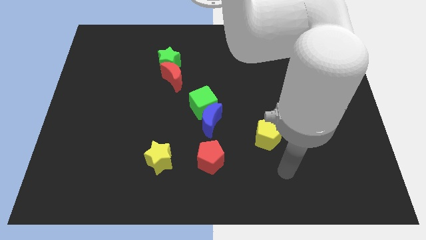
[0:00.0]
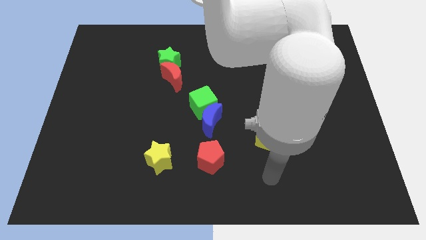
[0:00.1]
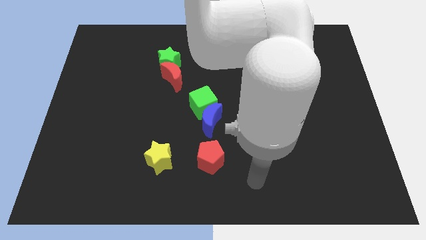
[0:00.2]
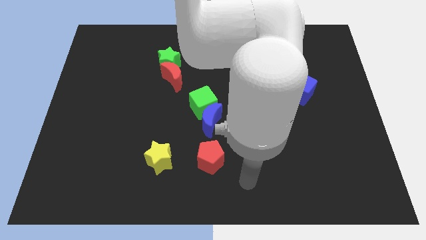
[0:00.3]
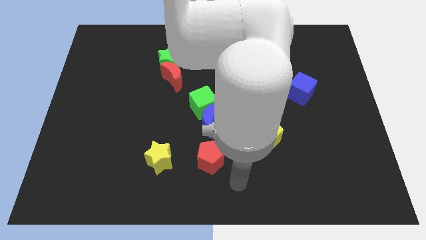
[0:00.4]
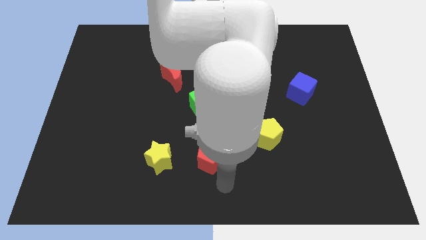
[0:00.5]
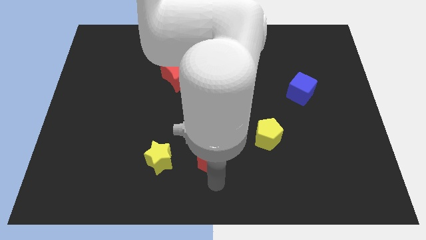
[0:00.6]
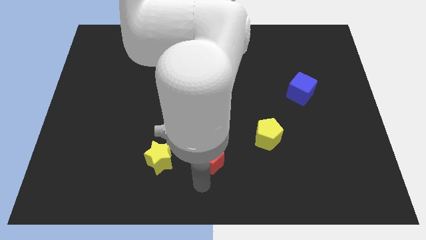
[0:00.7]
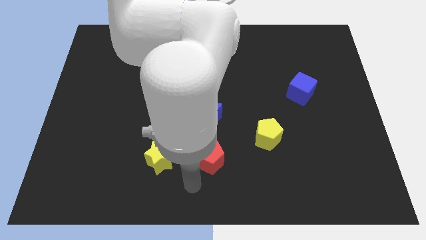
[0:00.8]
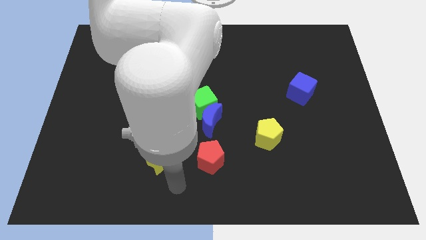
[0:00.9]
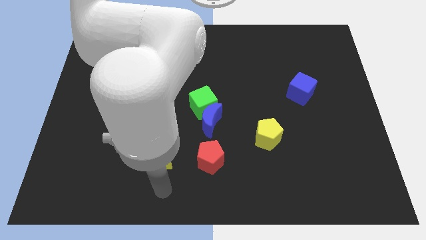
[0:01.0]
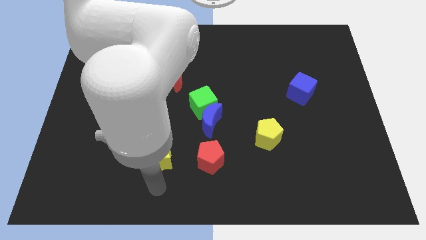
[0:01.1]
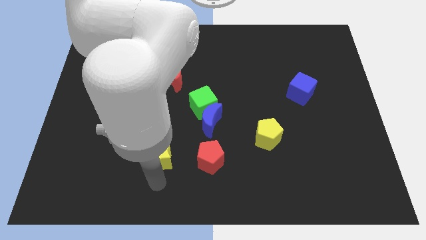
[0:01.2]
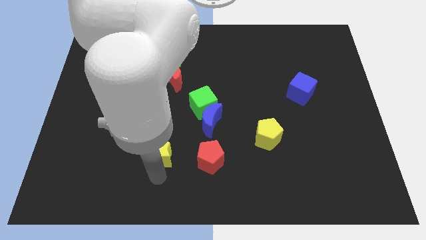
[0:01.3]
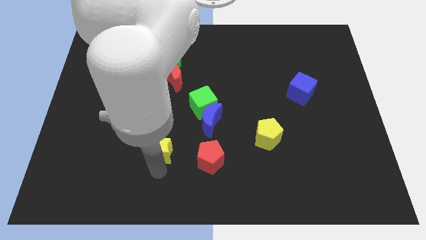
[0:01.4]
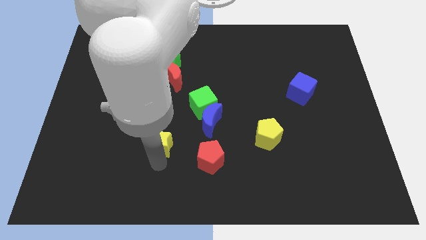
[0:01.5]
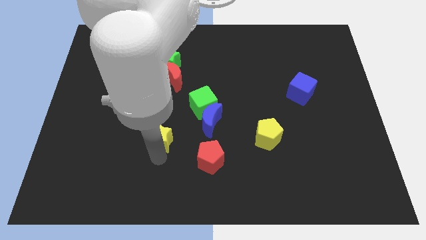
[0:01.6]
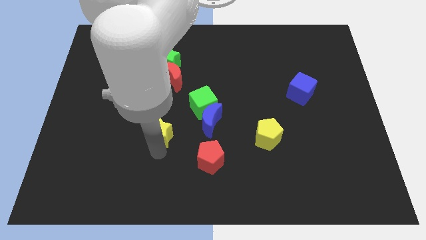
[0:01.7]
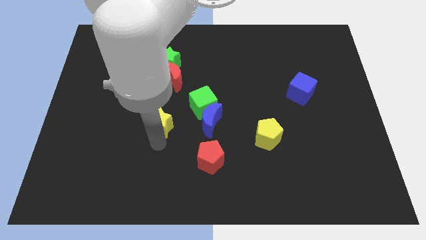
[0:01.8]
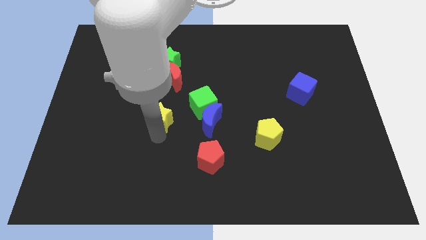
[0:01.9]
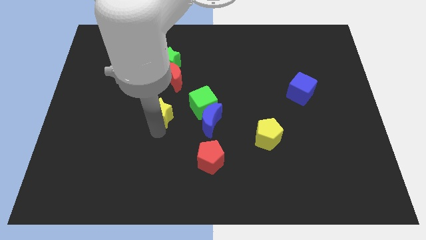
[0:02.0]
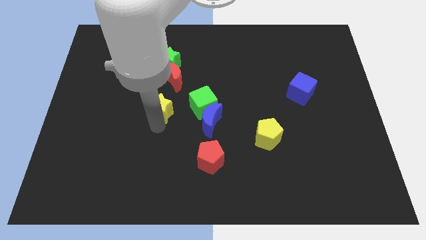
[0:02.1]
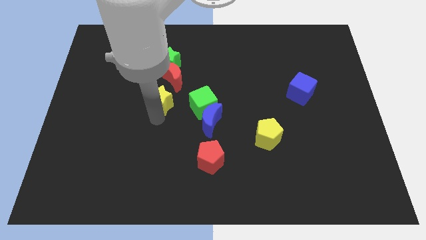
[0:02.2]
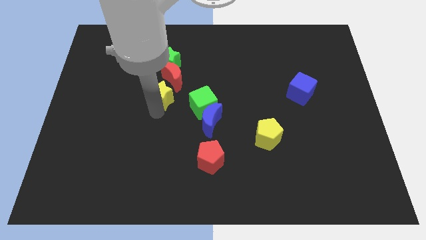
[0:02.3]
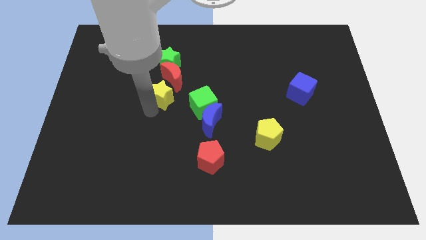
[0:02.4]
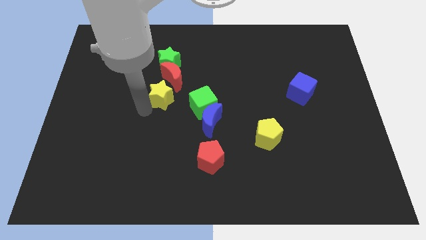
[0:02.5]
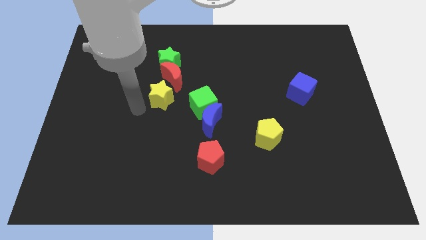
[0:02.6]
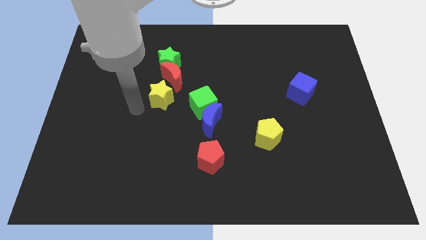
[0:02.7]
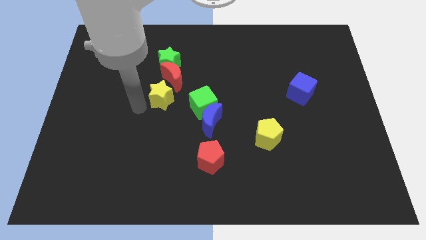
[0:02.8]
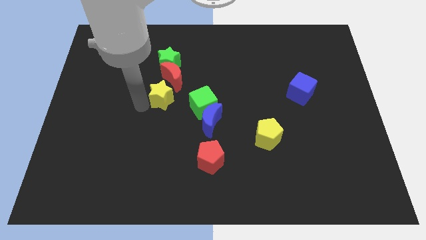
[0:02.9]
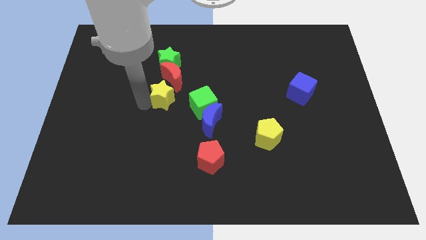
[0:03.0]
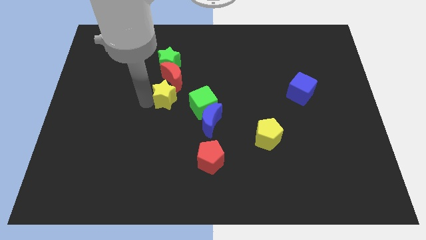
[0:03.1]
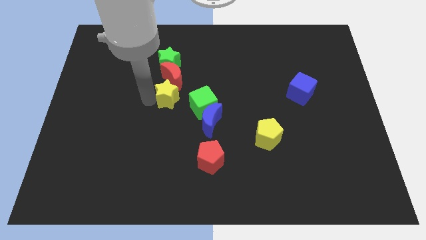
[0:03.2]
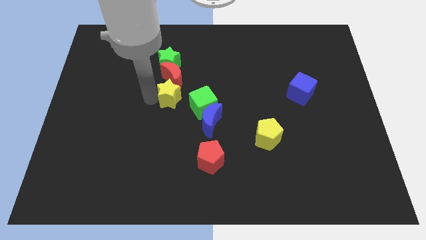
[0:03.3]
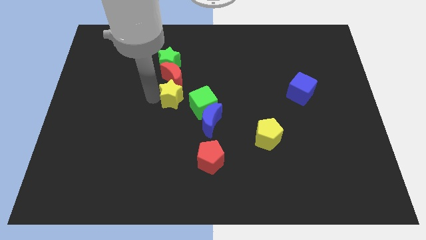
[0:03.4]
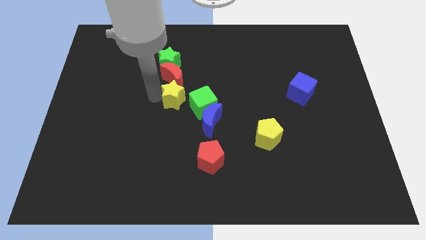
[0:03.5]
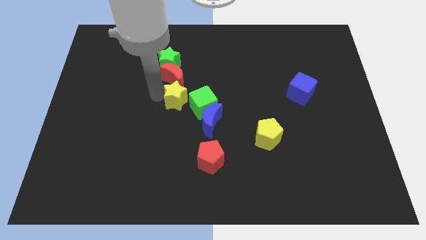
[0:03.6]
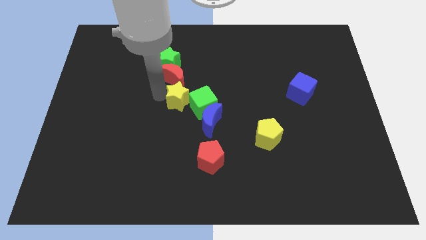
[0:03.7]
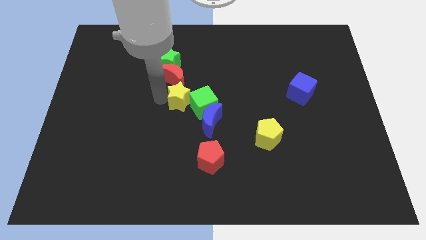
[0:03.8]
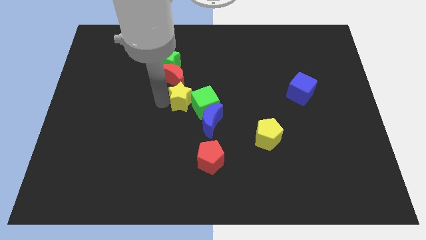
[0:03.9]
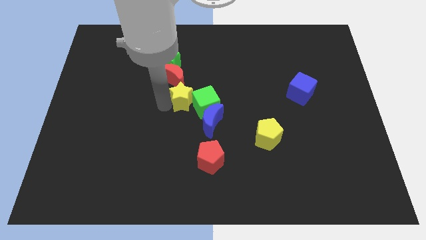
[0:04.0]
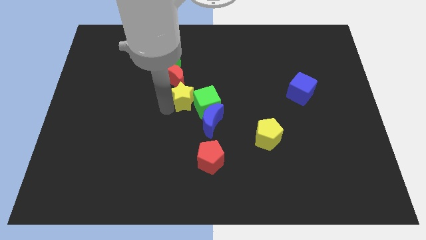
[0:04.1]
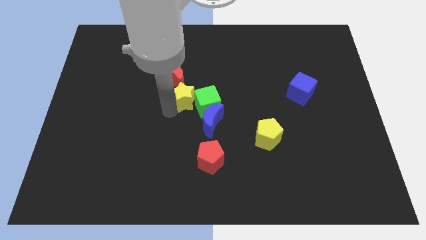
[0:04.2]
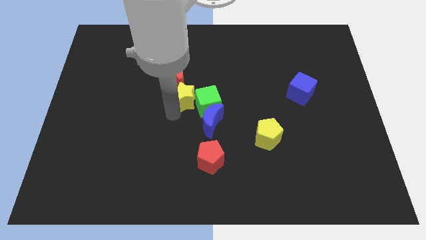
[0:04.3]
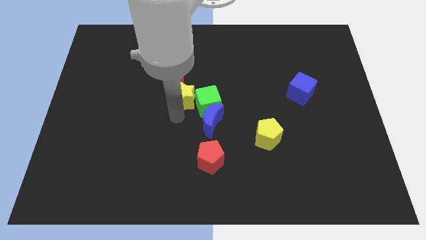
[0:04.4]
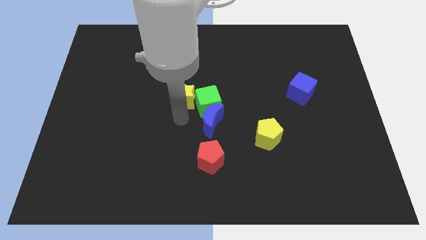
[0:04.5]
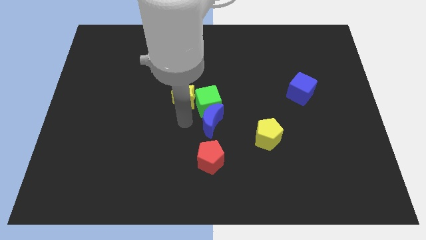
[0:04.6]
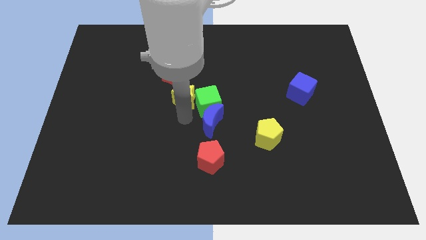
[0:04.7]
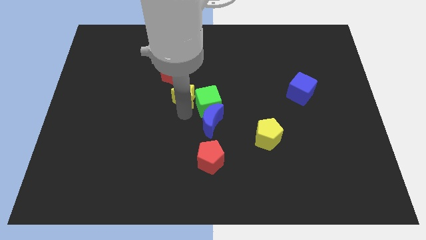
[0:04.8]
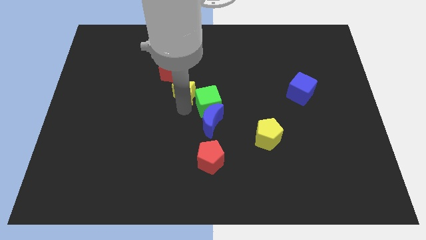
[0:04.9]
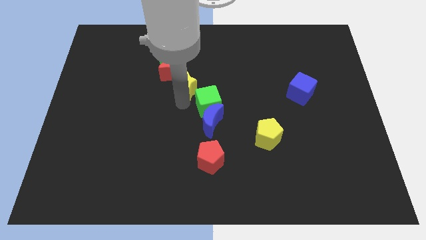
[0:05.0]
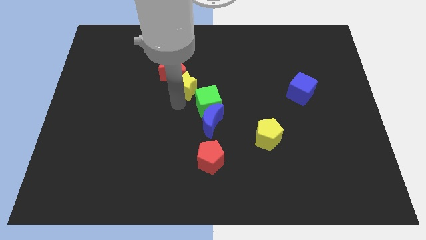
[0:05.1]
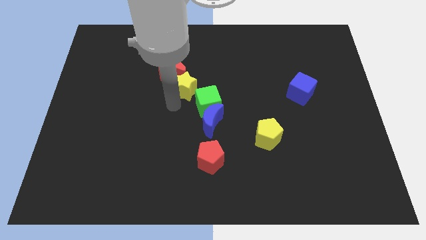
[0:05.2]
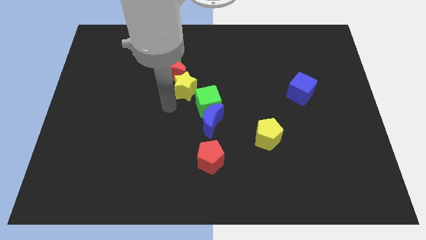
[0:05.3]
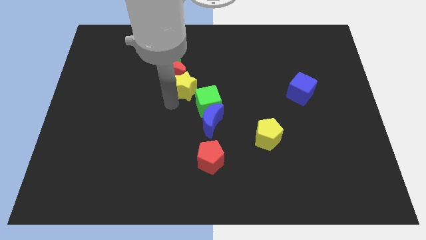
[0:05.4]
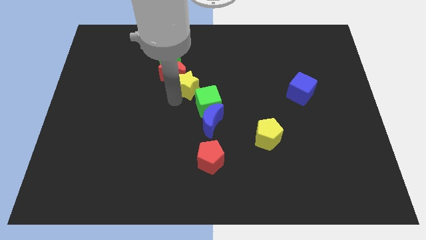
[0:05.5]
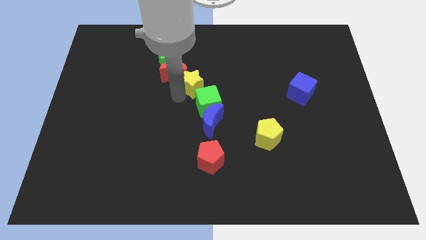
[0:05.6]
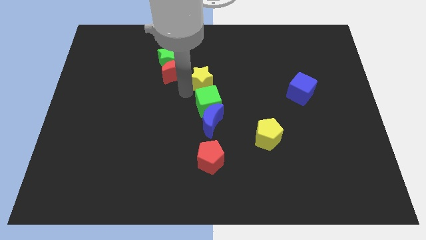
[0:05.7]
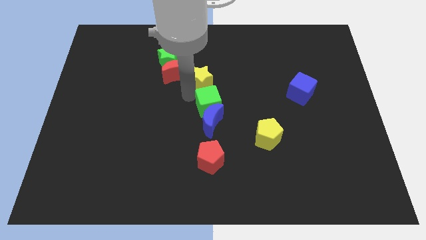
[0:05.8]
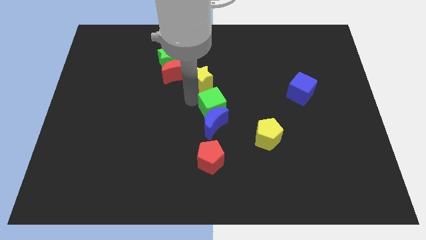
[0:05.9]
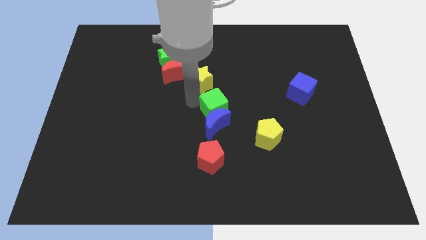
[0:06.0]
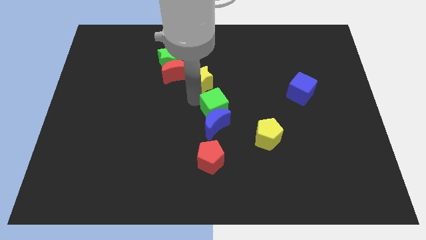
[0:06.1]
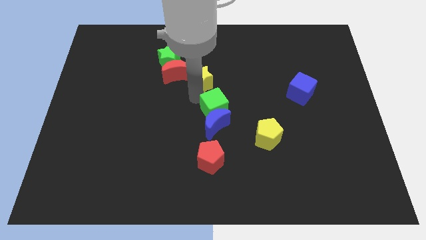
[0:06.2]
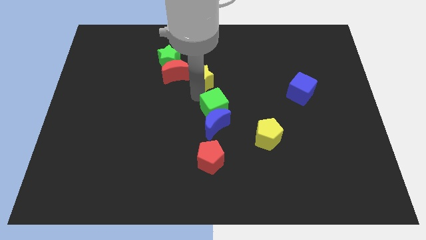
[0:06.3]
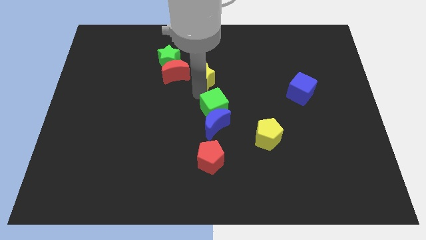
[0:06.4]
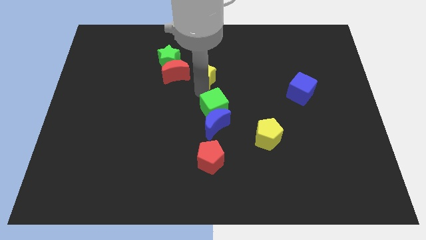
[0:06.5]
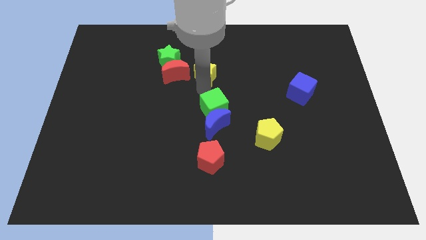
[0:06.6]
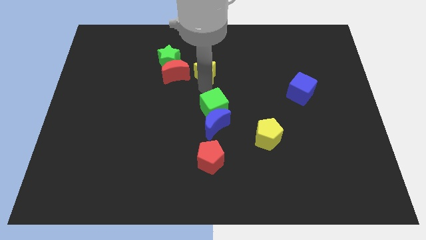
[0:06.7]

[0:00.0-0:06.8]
put the yellow star just right of the green star
